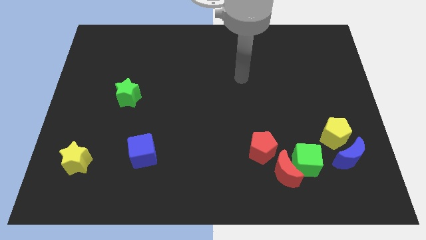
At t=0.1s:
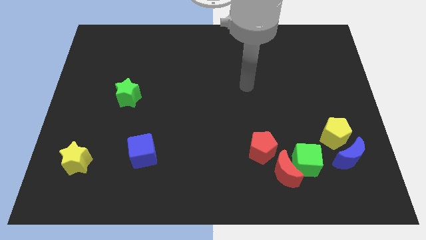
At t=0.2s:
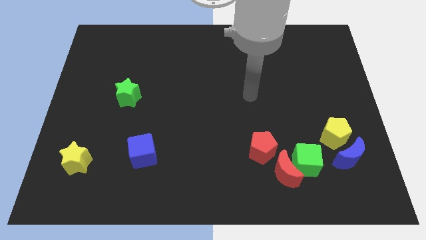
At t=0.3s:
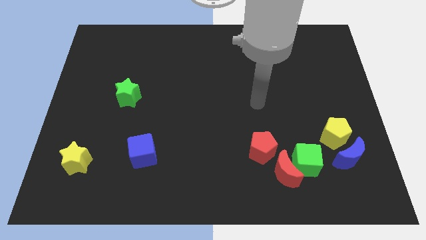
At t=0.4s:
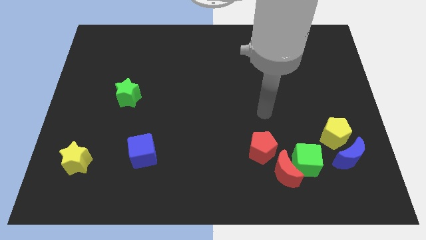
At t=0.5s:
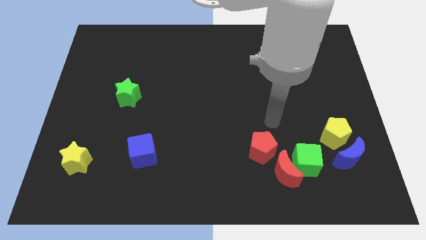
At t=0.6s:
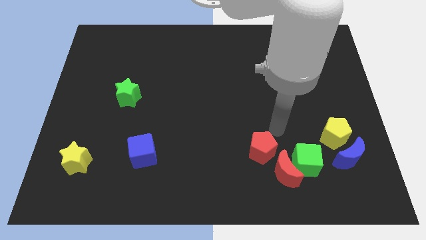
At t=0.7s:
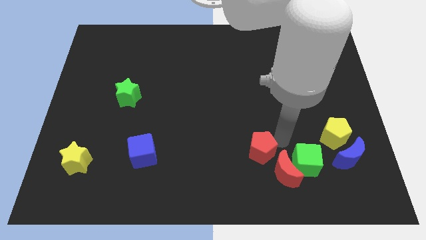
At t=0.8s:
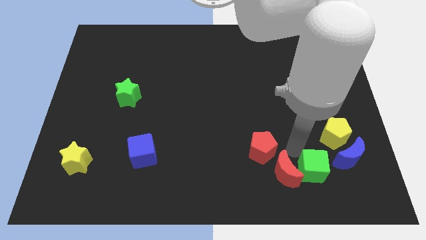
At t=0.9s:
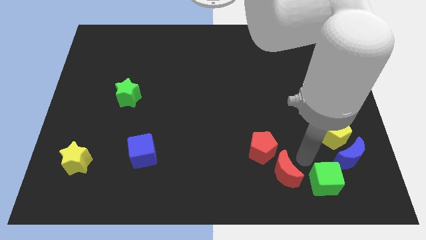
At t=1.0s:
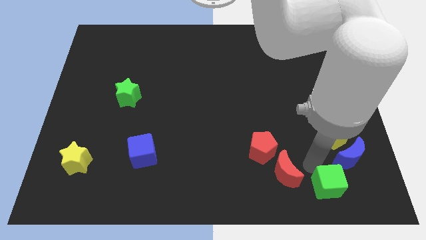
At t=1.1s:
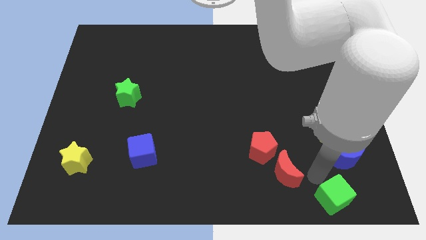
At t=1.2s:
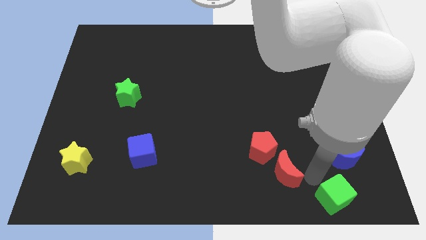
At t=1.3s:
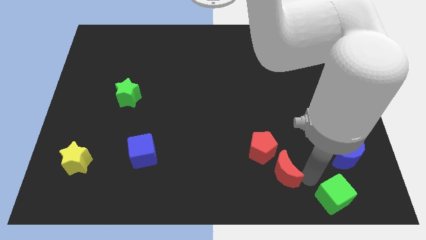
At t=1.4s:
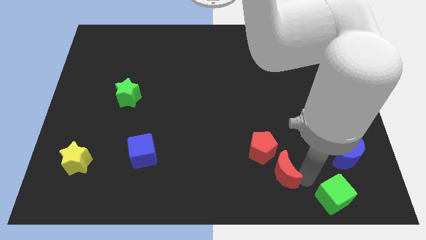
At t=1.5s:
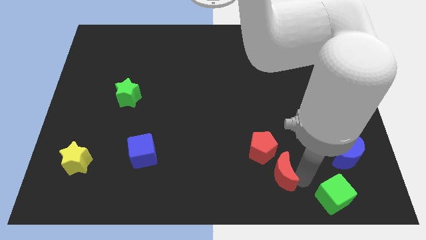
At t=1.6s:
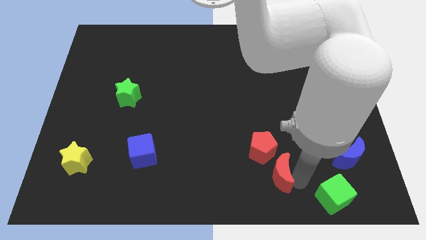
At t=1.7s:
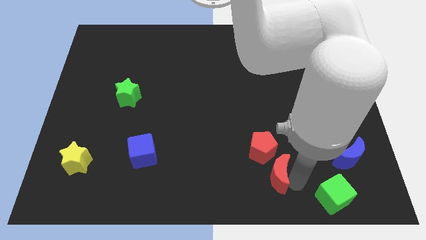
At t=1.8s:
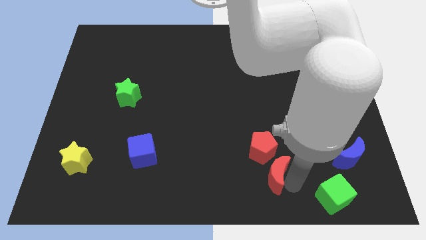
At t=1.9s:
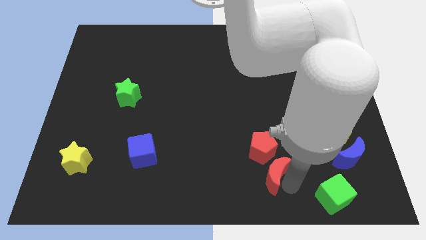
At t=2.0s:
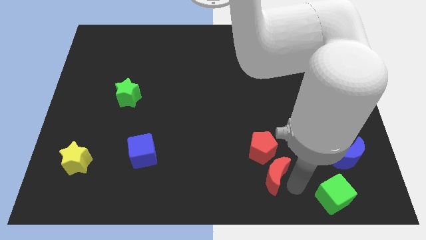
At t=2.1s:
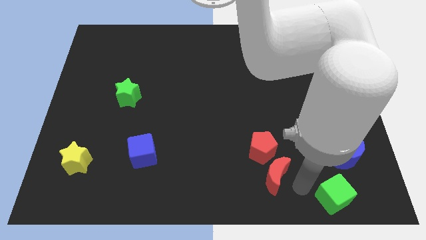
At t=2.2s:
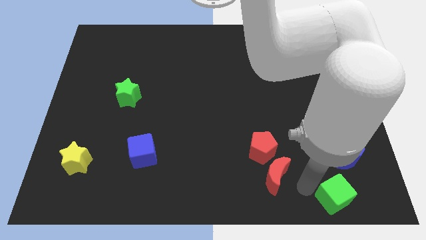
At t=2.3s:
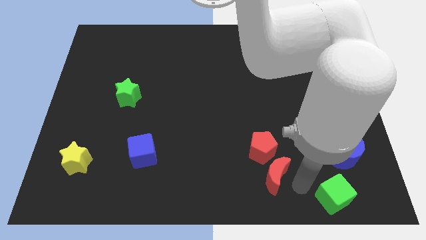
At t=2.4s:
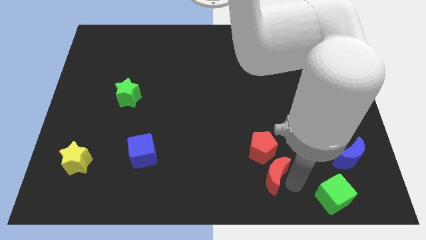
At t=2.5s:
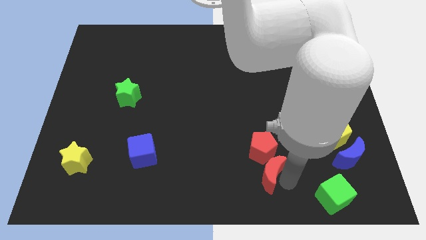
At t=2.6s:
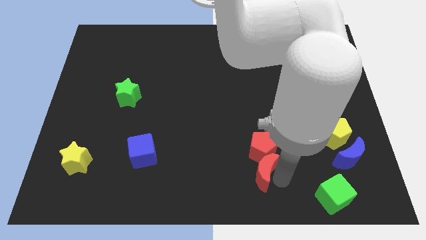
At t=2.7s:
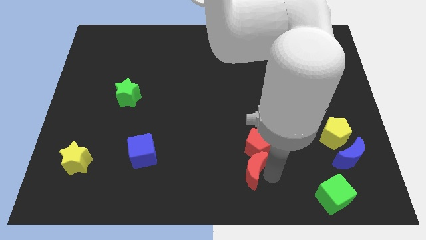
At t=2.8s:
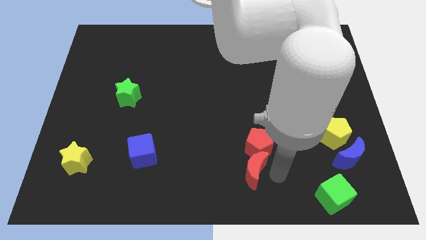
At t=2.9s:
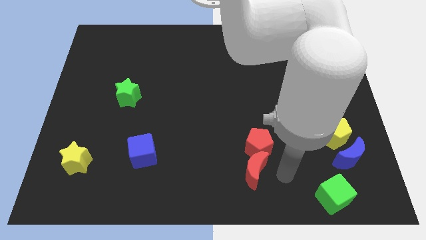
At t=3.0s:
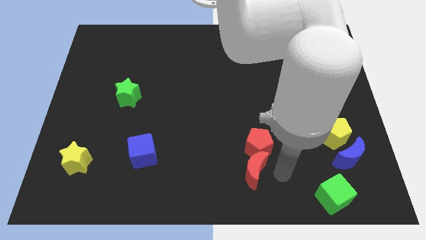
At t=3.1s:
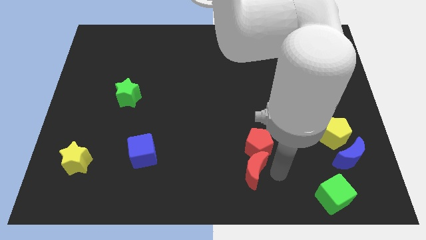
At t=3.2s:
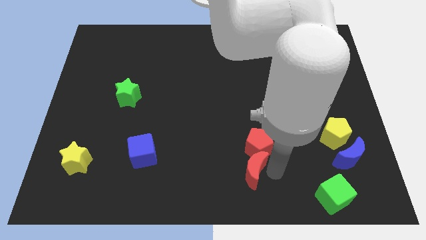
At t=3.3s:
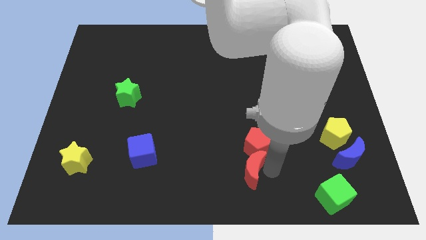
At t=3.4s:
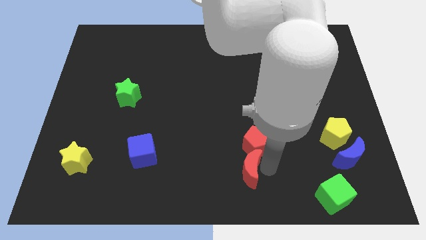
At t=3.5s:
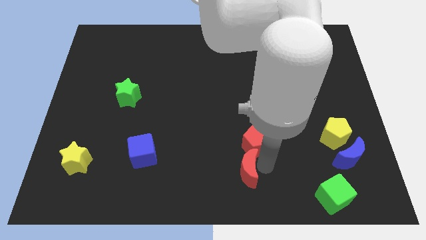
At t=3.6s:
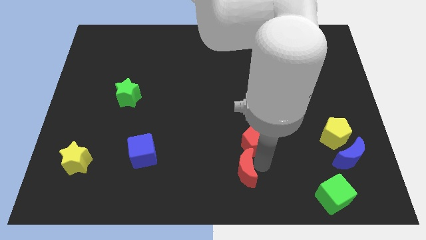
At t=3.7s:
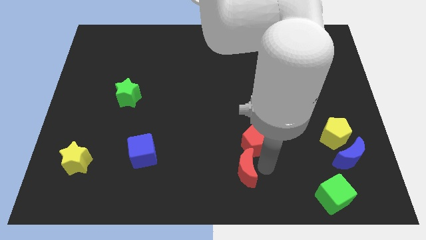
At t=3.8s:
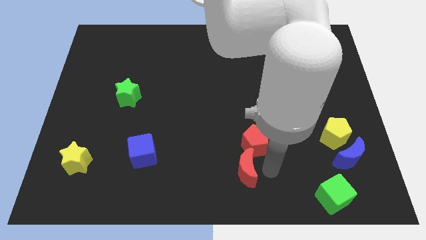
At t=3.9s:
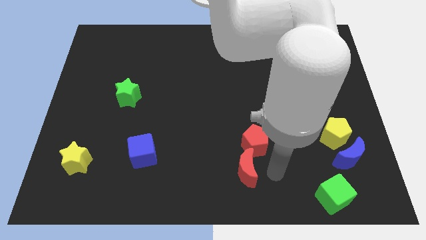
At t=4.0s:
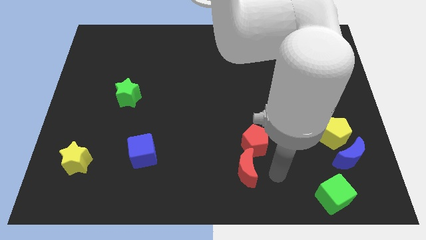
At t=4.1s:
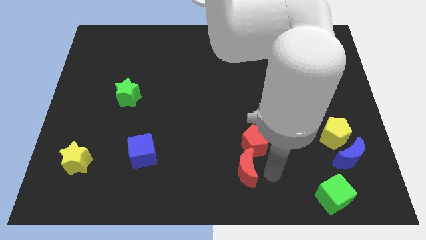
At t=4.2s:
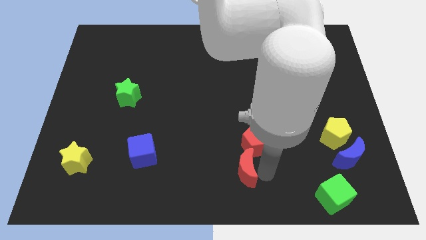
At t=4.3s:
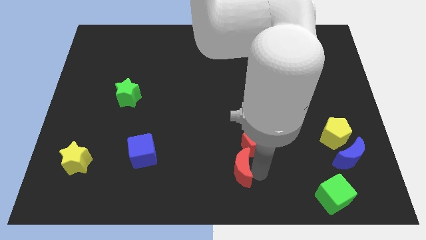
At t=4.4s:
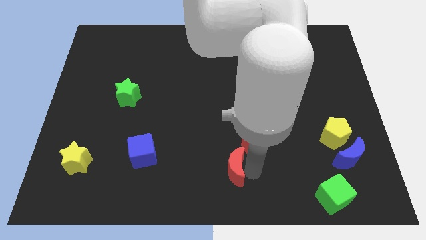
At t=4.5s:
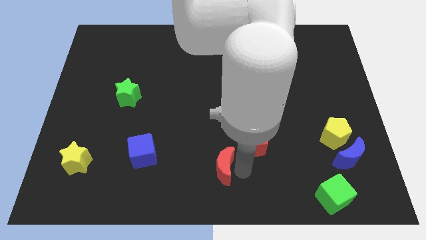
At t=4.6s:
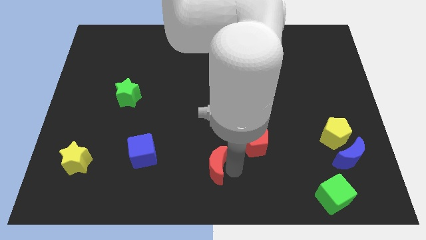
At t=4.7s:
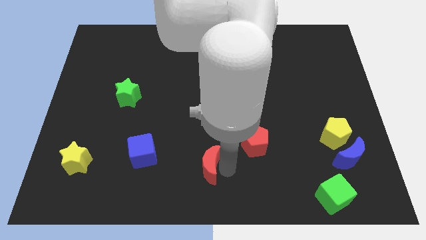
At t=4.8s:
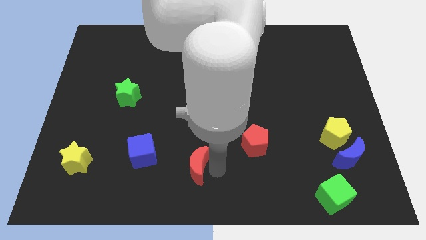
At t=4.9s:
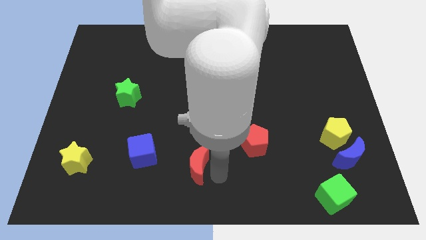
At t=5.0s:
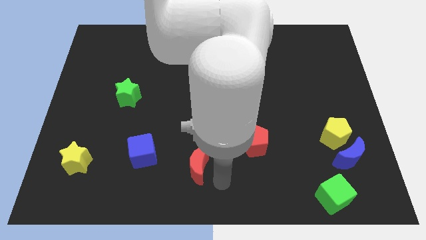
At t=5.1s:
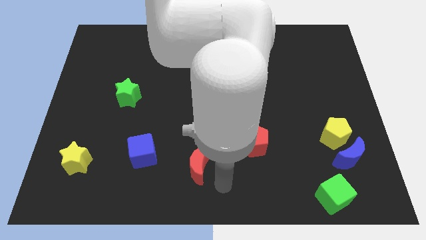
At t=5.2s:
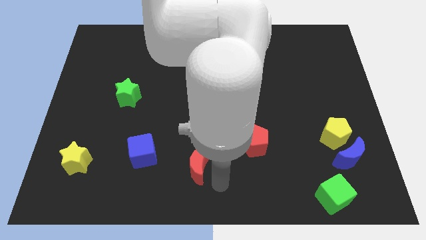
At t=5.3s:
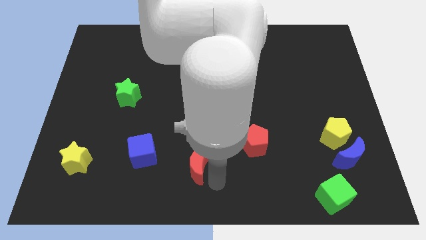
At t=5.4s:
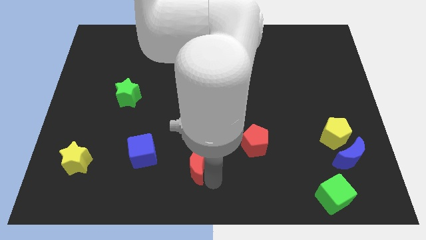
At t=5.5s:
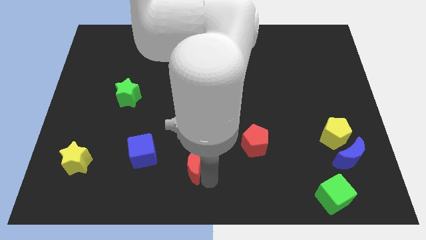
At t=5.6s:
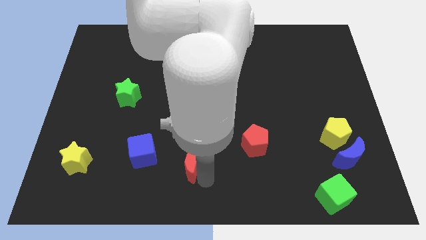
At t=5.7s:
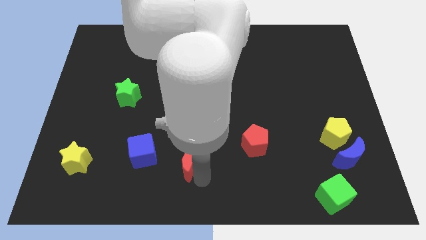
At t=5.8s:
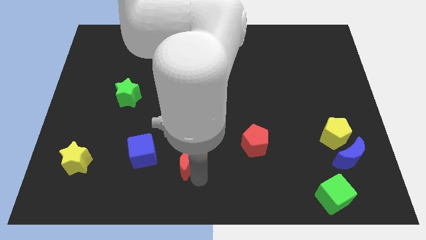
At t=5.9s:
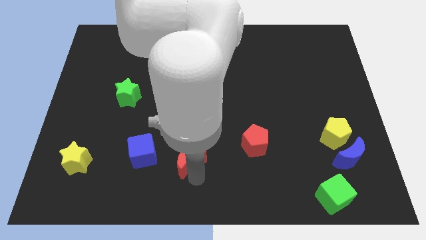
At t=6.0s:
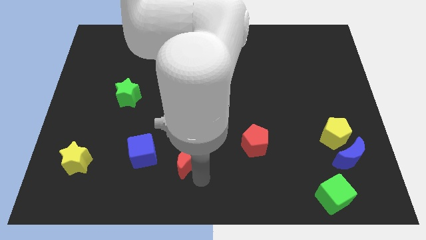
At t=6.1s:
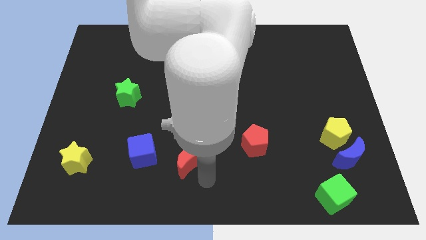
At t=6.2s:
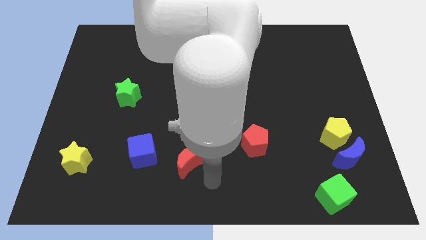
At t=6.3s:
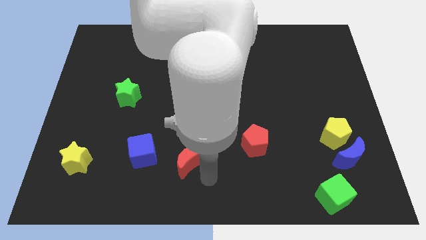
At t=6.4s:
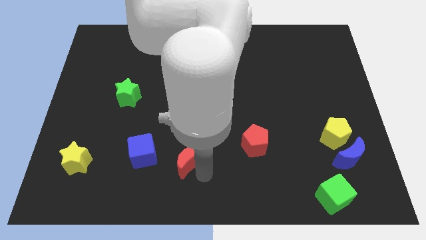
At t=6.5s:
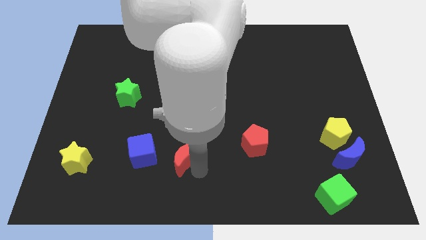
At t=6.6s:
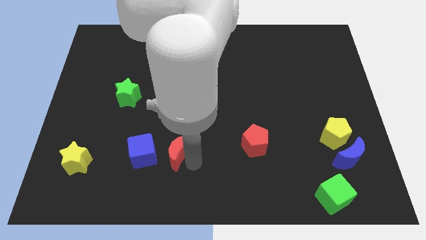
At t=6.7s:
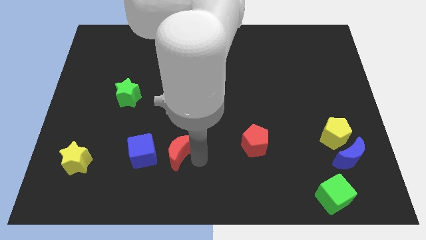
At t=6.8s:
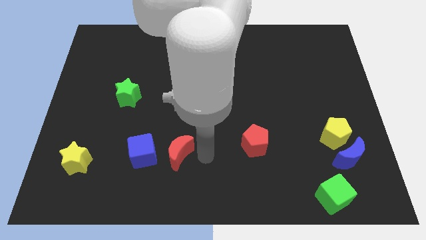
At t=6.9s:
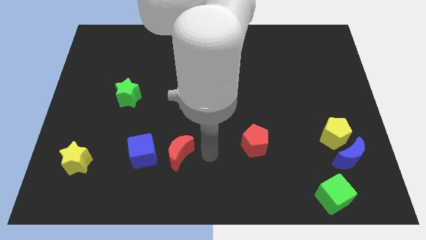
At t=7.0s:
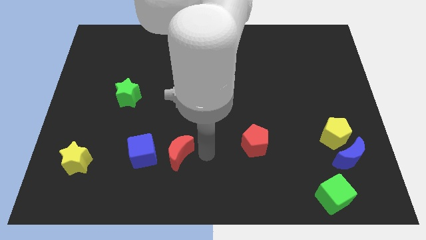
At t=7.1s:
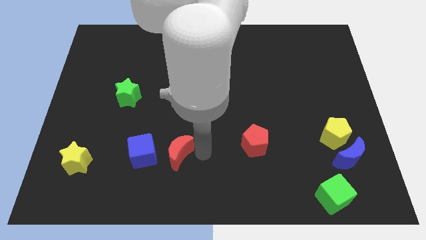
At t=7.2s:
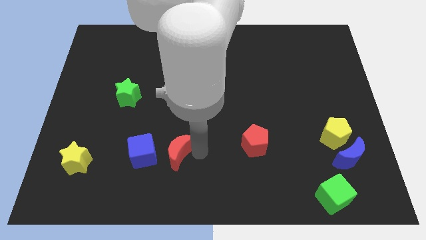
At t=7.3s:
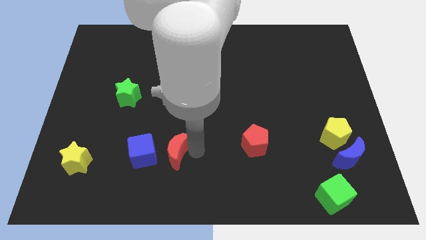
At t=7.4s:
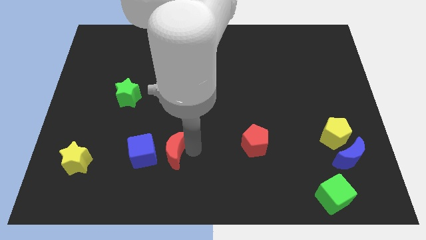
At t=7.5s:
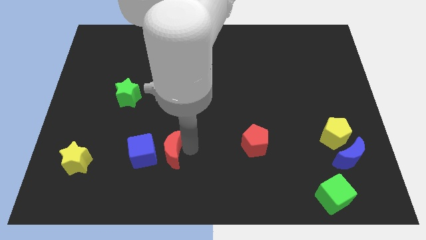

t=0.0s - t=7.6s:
push the red moon towards the blue cube

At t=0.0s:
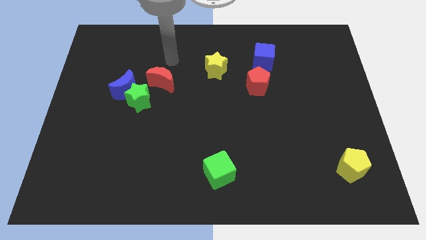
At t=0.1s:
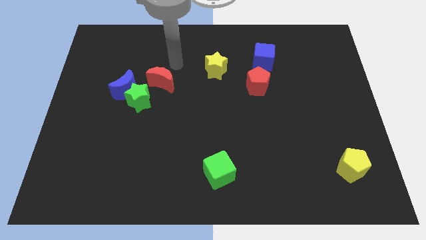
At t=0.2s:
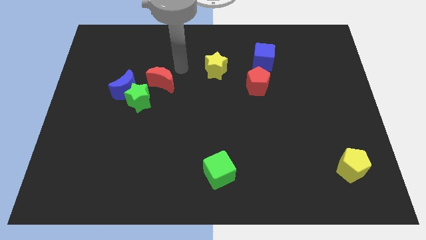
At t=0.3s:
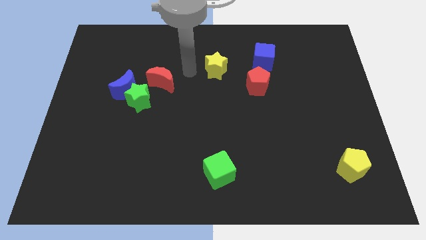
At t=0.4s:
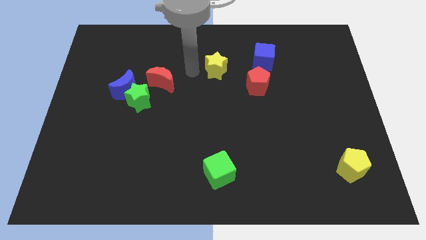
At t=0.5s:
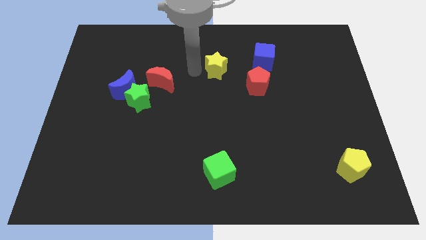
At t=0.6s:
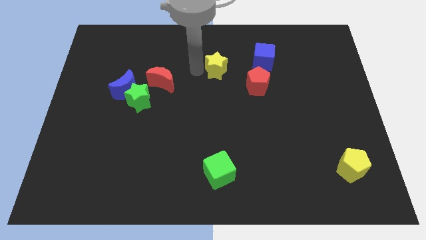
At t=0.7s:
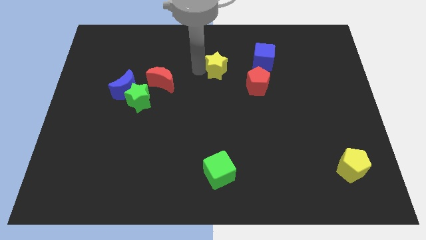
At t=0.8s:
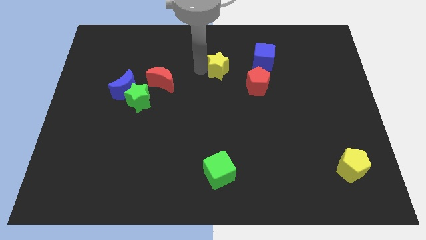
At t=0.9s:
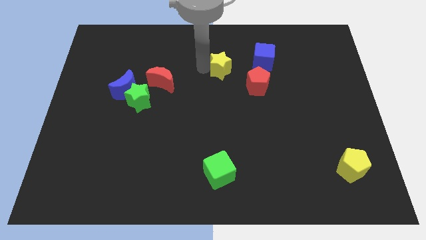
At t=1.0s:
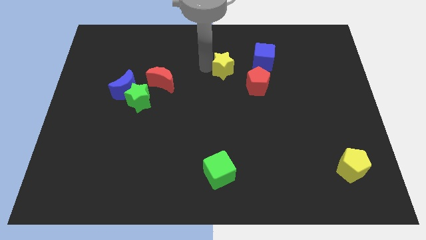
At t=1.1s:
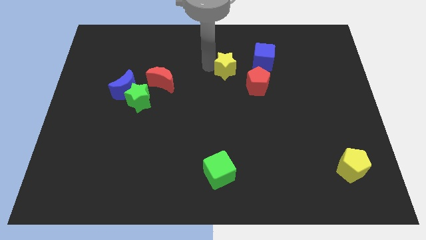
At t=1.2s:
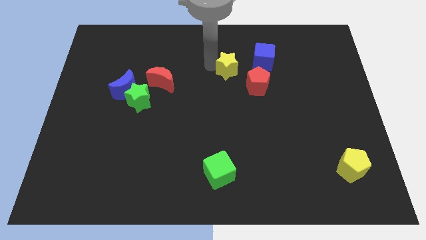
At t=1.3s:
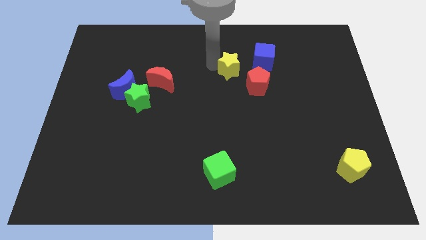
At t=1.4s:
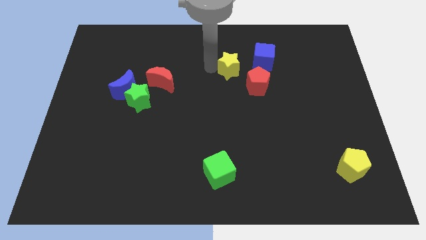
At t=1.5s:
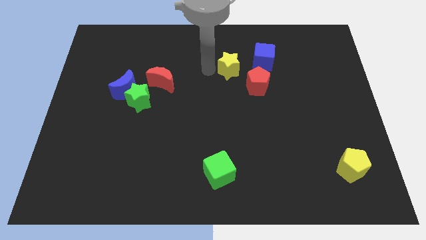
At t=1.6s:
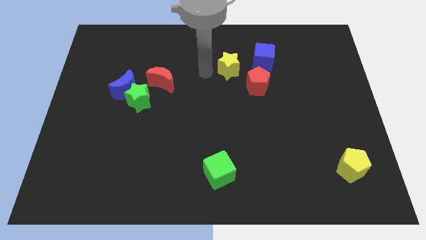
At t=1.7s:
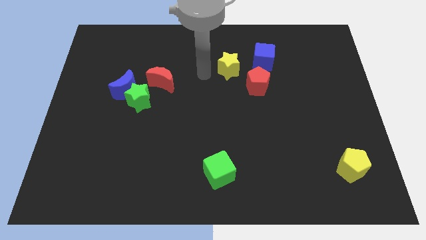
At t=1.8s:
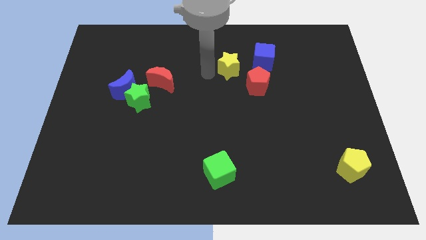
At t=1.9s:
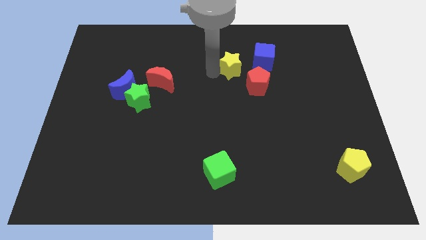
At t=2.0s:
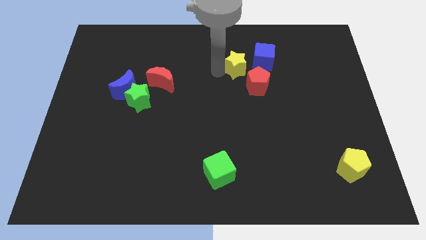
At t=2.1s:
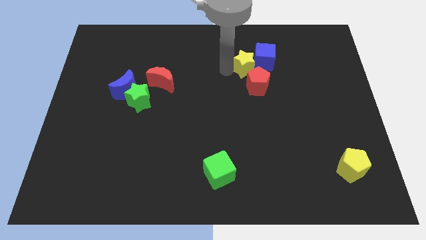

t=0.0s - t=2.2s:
slide the yellow star to the blue cube
